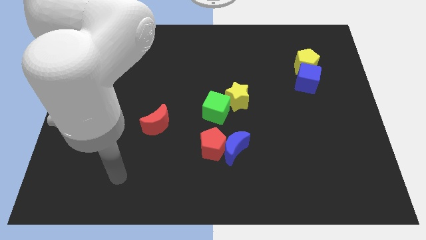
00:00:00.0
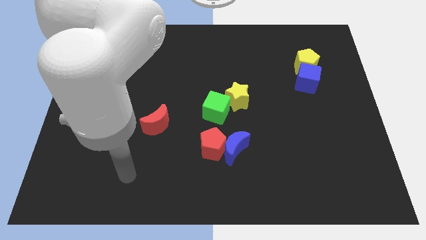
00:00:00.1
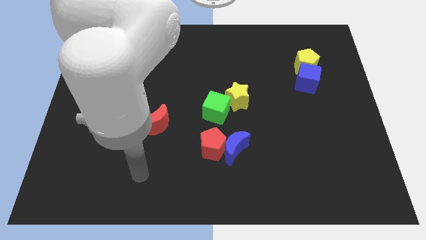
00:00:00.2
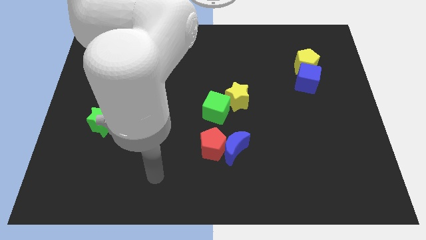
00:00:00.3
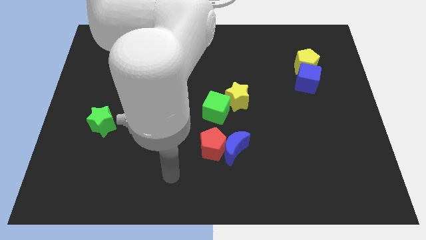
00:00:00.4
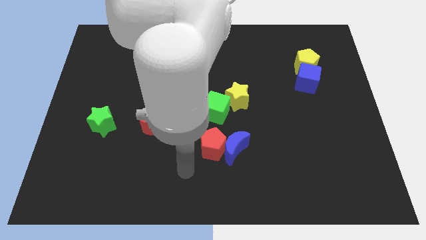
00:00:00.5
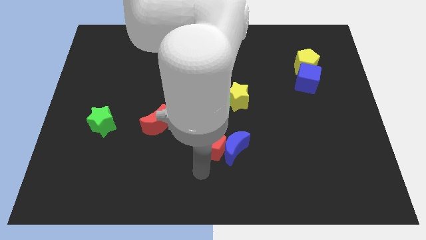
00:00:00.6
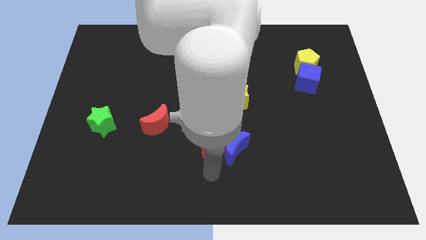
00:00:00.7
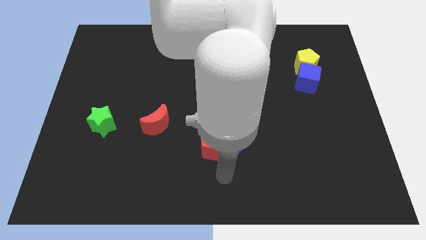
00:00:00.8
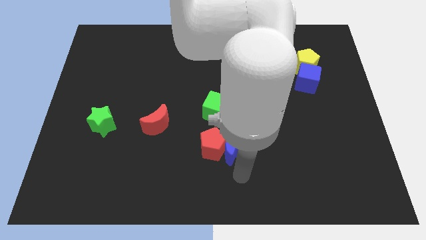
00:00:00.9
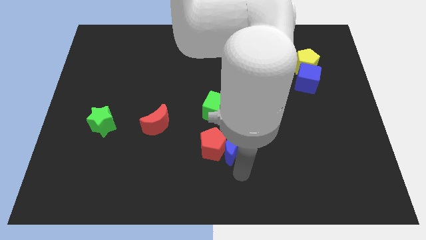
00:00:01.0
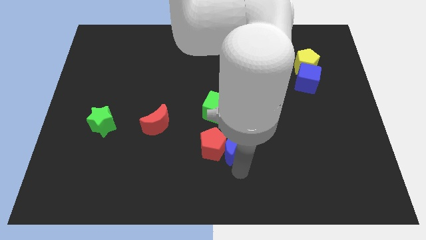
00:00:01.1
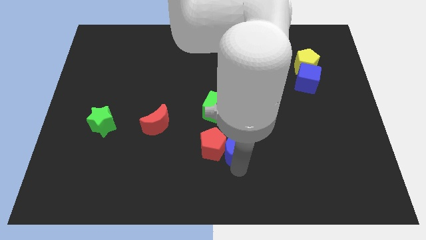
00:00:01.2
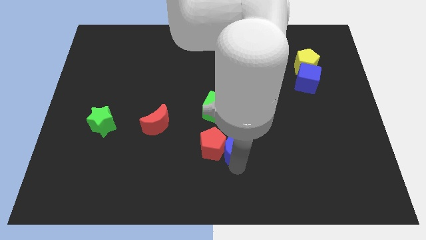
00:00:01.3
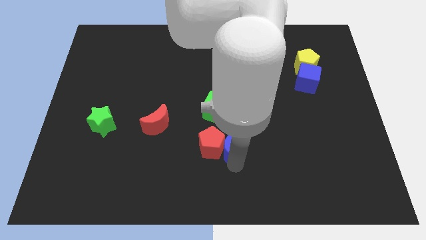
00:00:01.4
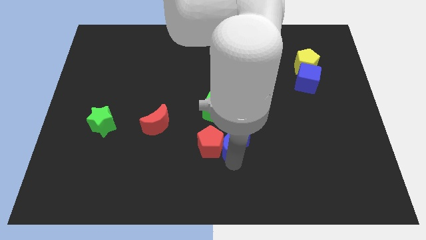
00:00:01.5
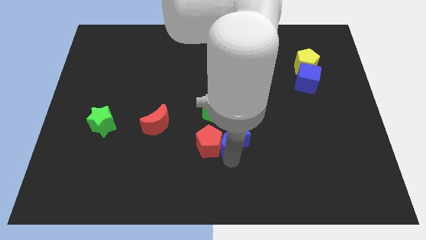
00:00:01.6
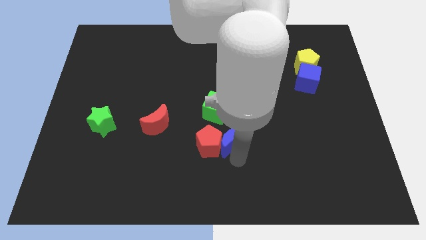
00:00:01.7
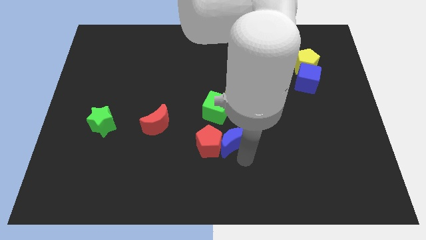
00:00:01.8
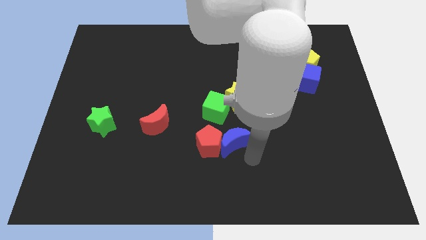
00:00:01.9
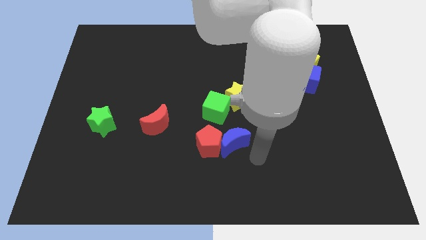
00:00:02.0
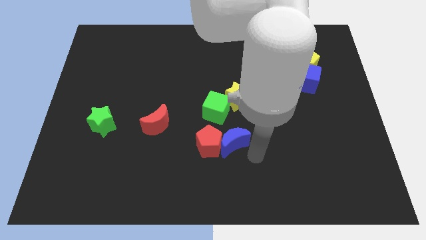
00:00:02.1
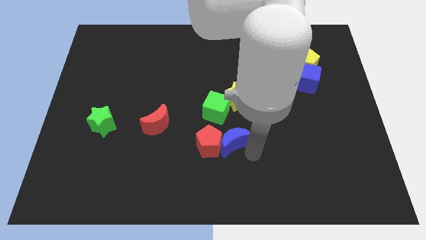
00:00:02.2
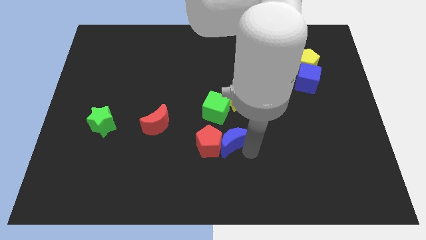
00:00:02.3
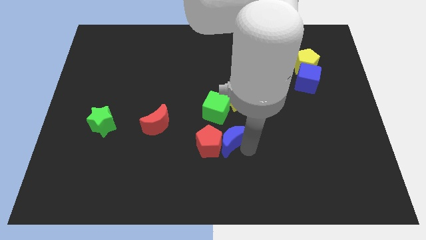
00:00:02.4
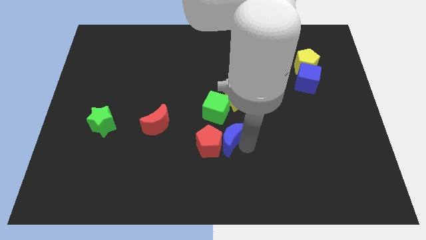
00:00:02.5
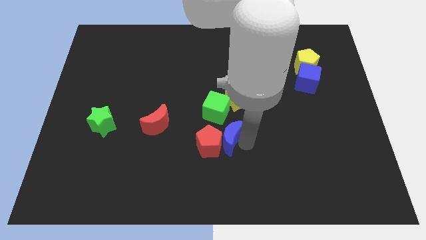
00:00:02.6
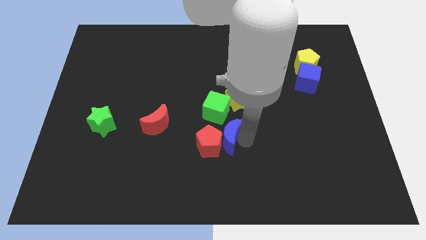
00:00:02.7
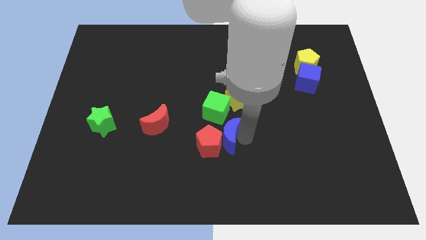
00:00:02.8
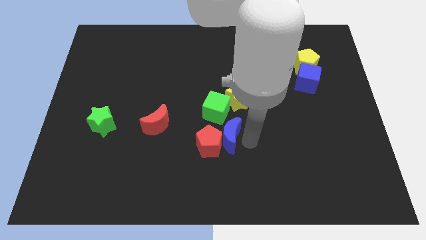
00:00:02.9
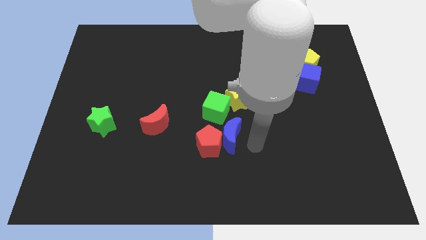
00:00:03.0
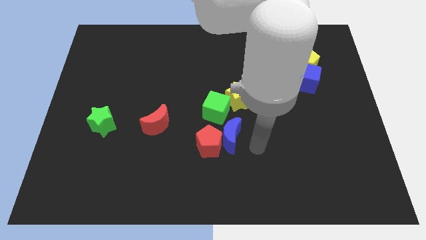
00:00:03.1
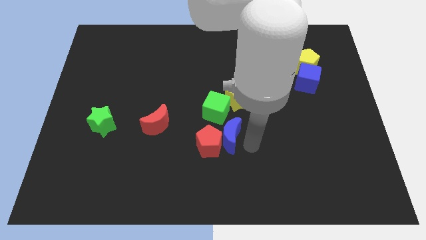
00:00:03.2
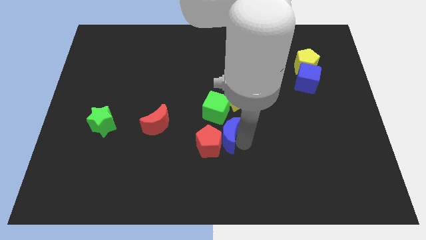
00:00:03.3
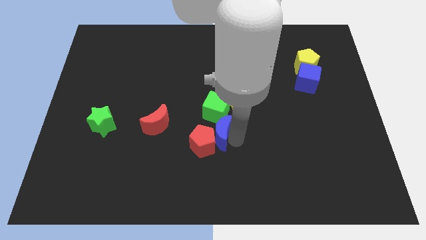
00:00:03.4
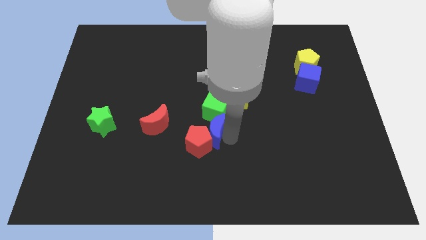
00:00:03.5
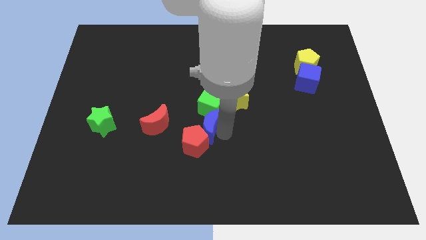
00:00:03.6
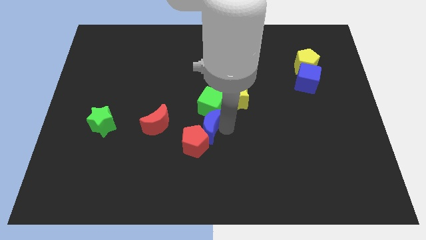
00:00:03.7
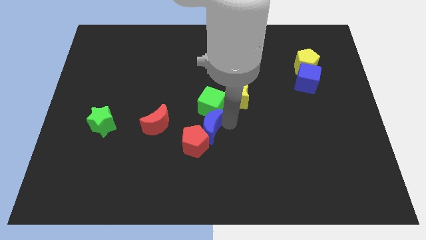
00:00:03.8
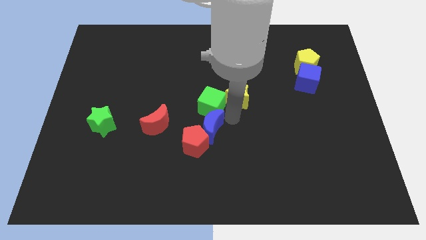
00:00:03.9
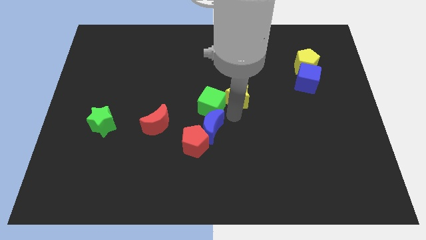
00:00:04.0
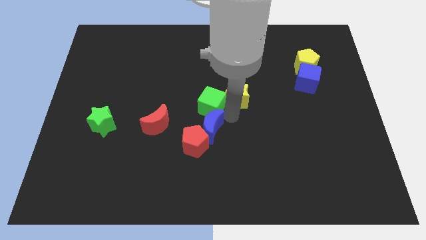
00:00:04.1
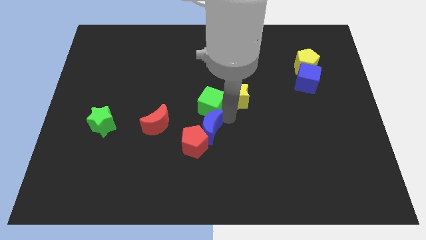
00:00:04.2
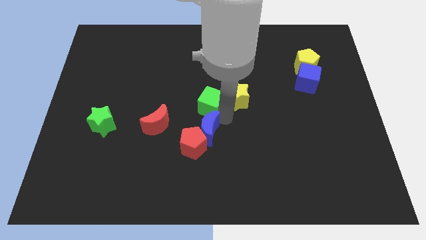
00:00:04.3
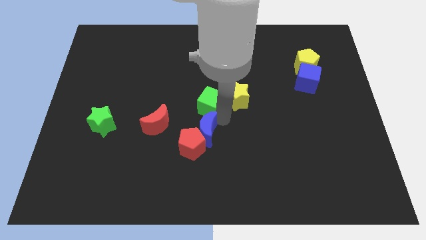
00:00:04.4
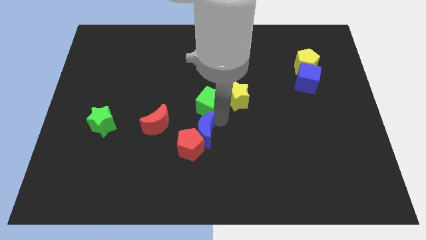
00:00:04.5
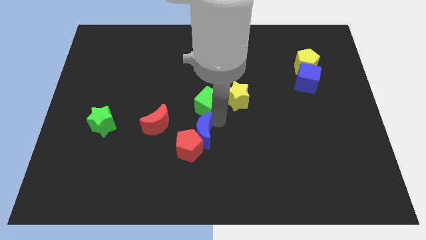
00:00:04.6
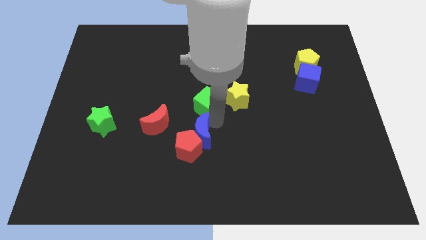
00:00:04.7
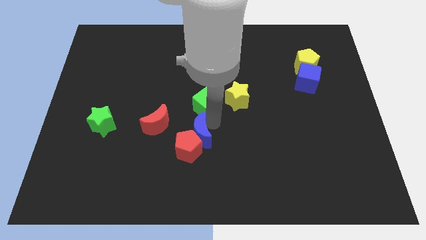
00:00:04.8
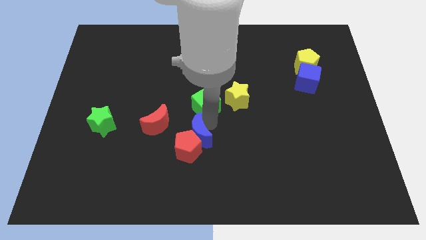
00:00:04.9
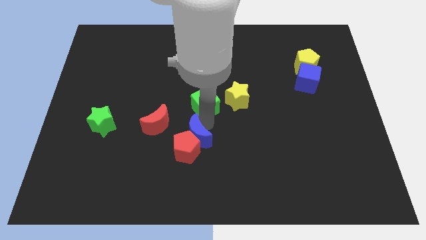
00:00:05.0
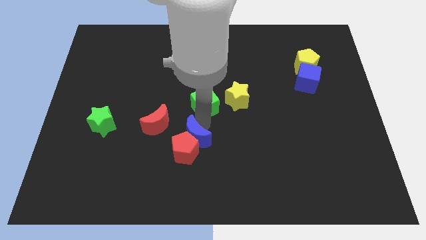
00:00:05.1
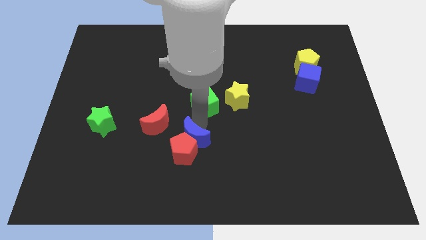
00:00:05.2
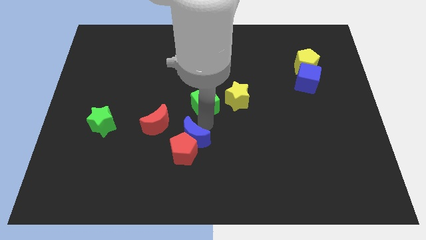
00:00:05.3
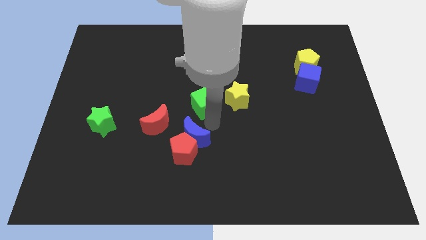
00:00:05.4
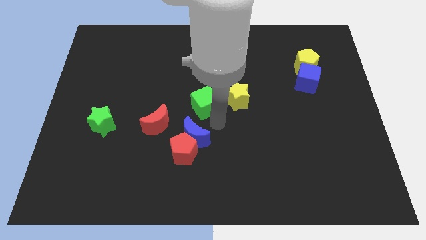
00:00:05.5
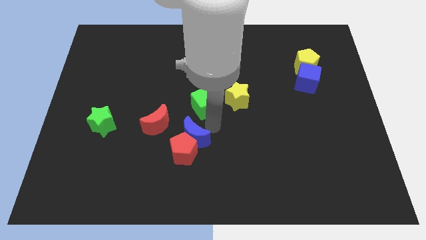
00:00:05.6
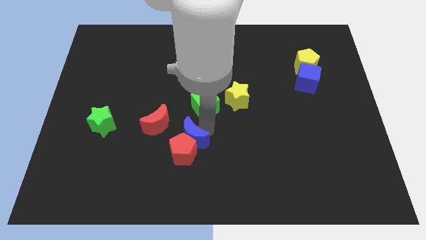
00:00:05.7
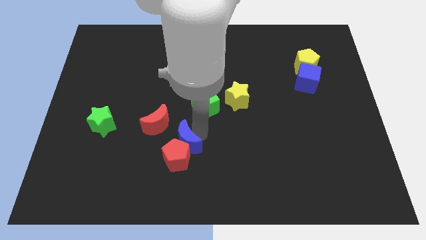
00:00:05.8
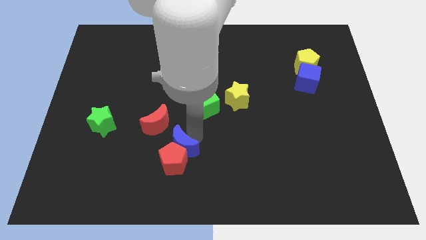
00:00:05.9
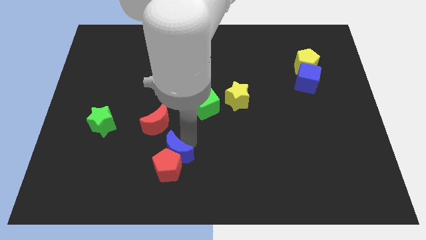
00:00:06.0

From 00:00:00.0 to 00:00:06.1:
slide the blue moon to the bottom side of the red moon

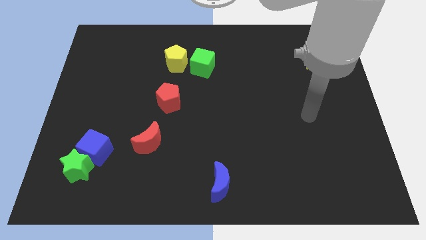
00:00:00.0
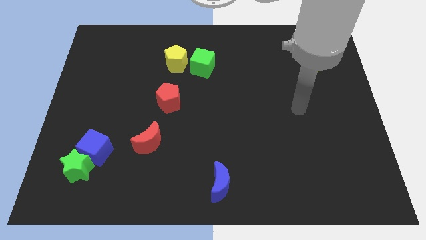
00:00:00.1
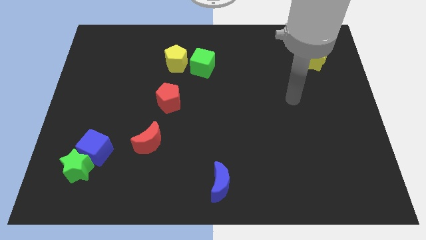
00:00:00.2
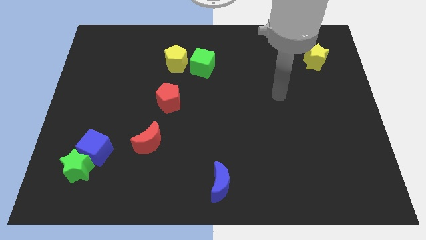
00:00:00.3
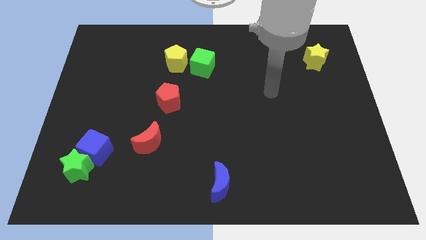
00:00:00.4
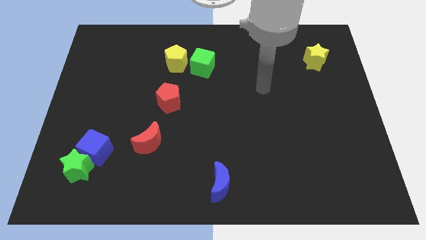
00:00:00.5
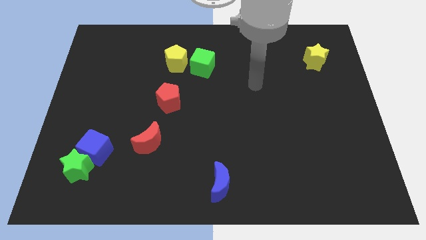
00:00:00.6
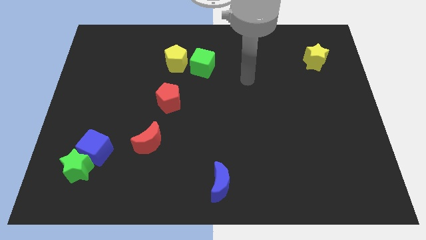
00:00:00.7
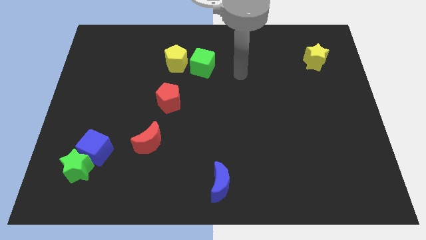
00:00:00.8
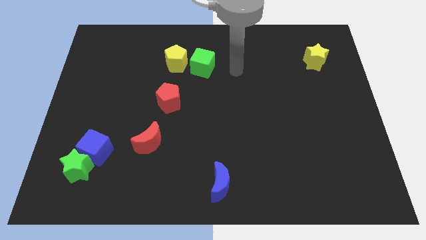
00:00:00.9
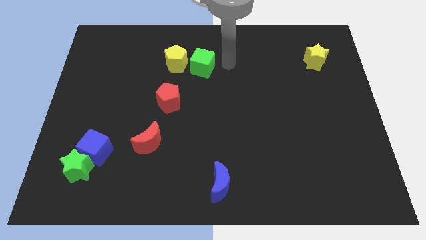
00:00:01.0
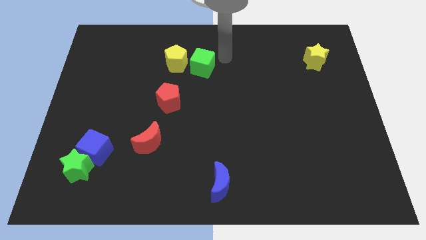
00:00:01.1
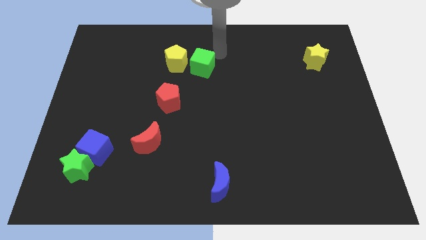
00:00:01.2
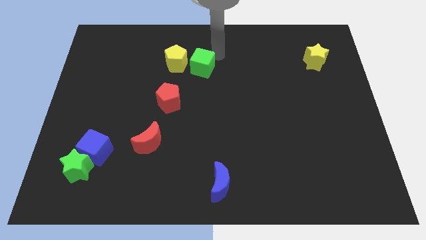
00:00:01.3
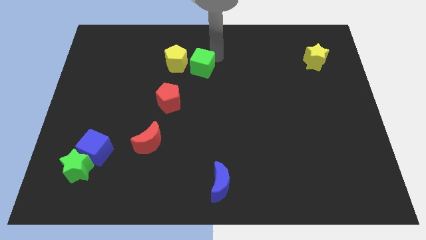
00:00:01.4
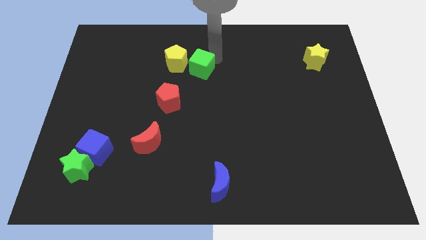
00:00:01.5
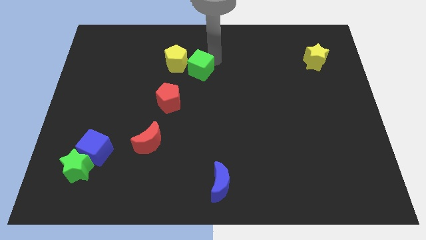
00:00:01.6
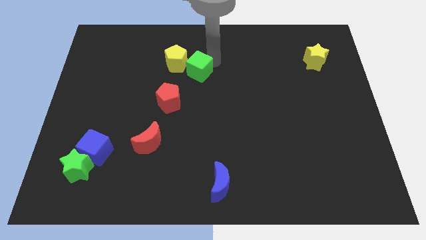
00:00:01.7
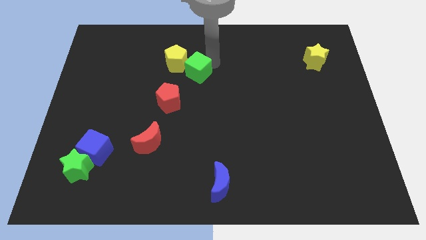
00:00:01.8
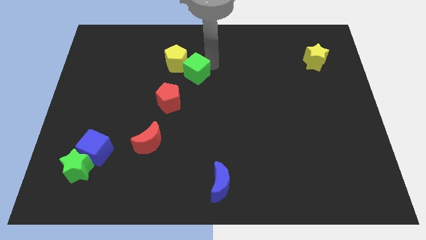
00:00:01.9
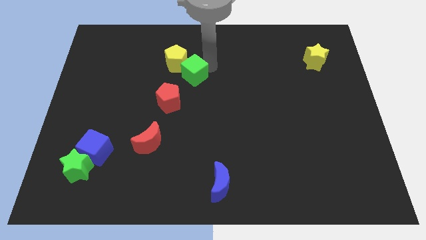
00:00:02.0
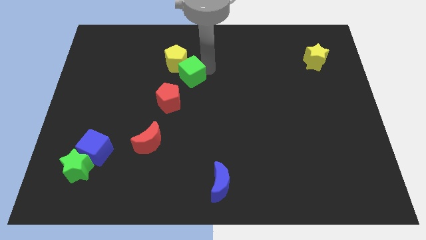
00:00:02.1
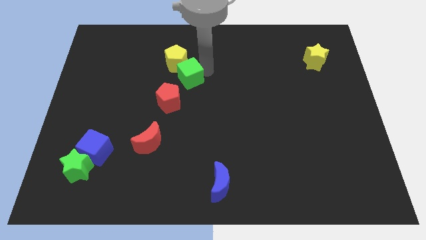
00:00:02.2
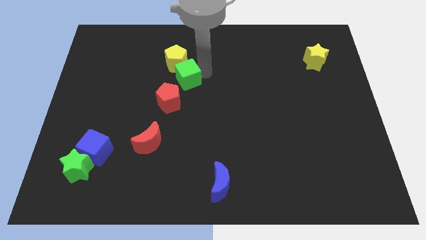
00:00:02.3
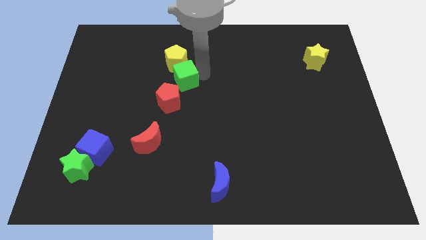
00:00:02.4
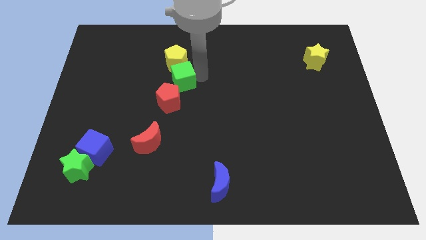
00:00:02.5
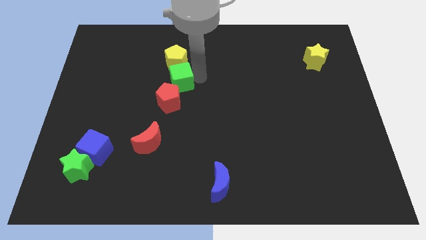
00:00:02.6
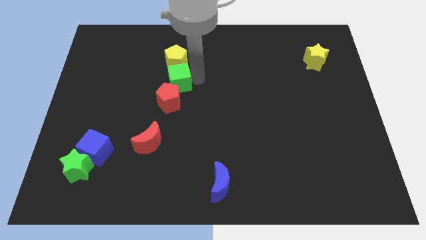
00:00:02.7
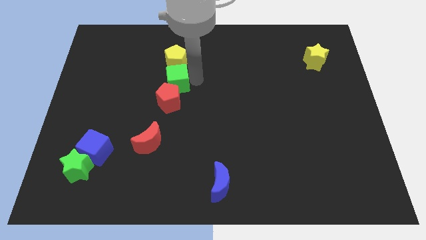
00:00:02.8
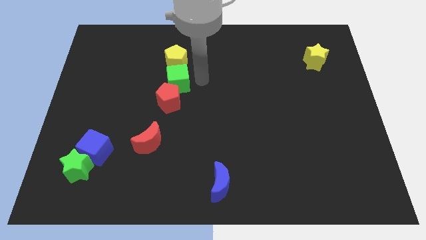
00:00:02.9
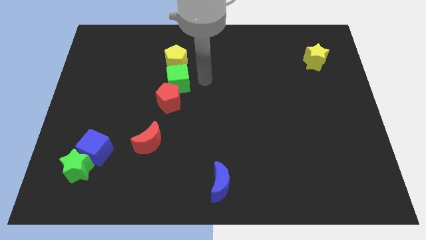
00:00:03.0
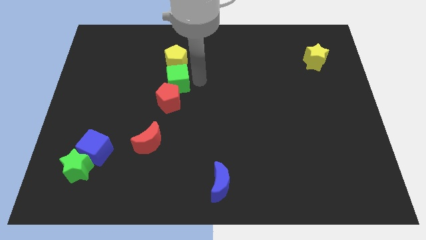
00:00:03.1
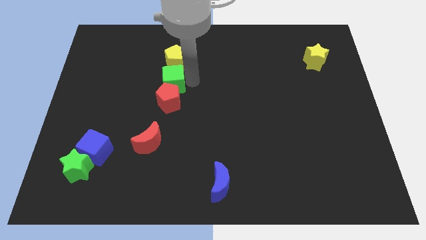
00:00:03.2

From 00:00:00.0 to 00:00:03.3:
put the green cube diagonally up and to the left of the red pentagon
